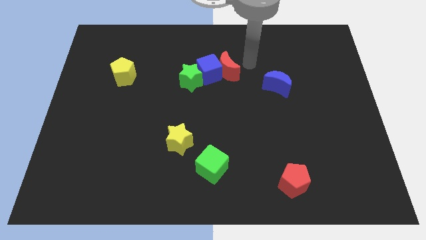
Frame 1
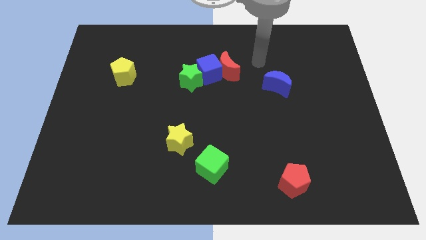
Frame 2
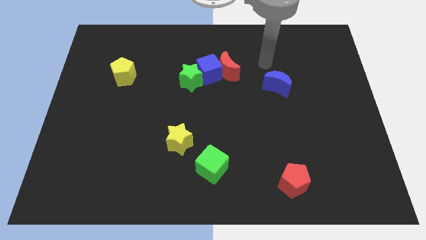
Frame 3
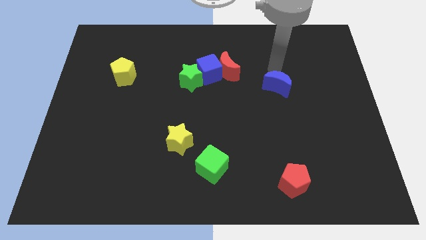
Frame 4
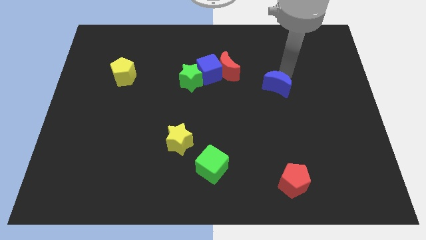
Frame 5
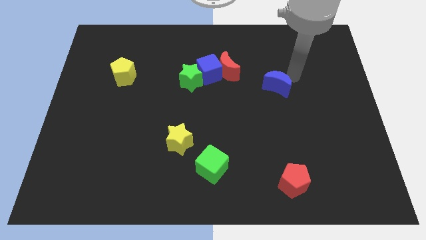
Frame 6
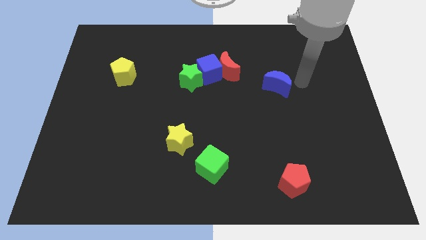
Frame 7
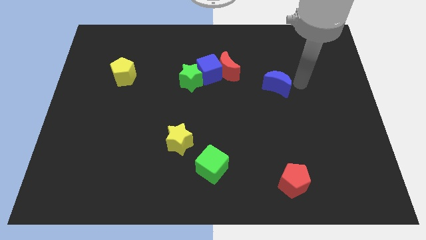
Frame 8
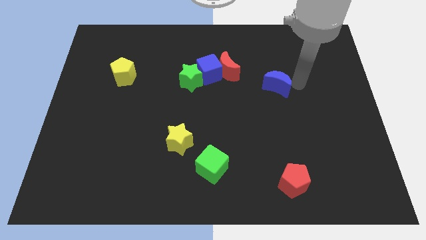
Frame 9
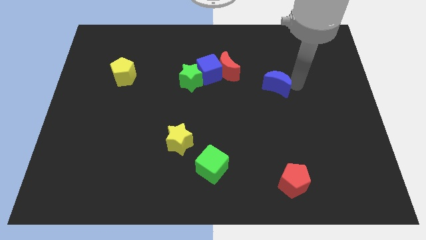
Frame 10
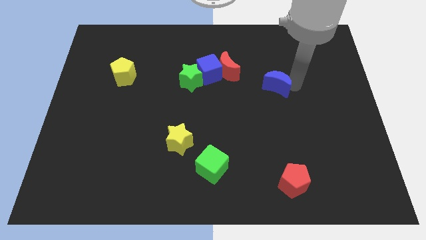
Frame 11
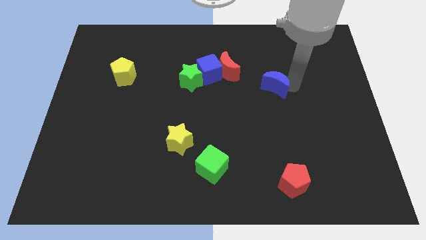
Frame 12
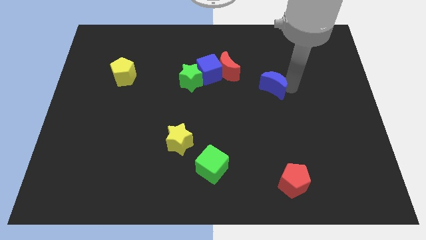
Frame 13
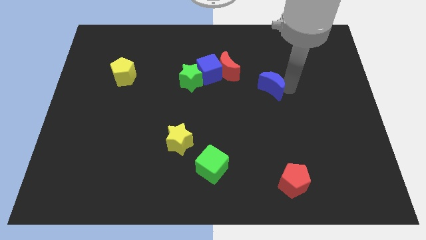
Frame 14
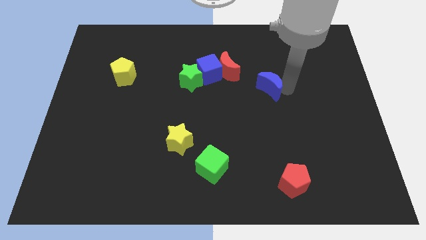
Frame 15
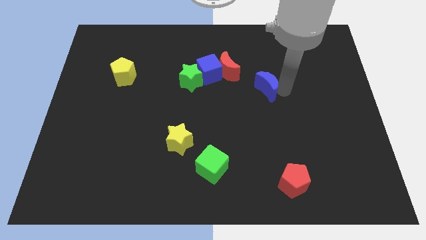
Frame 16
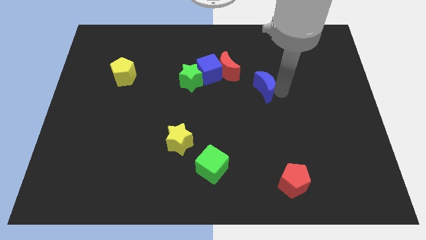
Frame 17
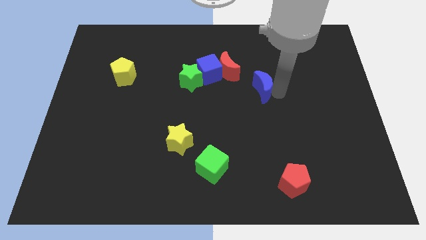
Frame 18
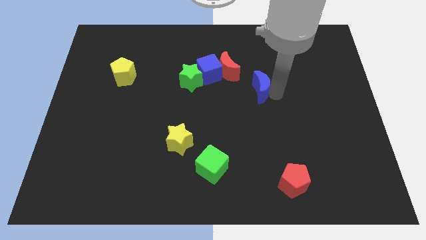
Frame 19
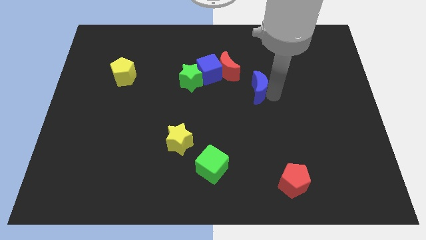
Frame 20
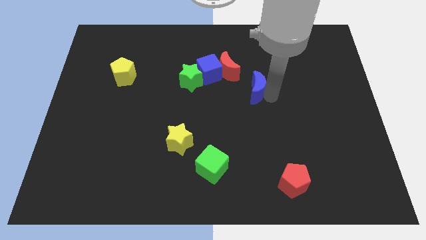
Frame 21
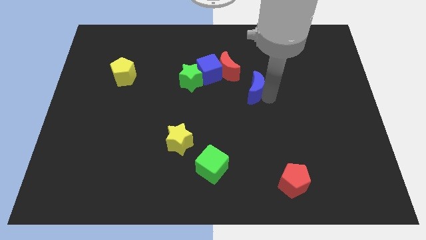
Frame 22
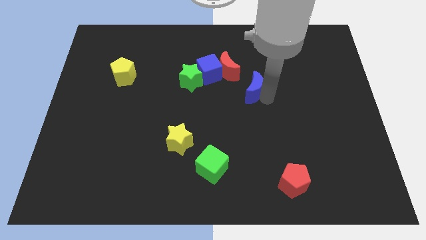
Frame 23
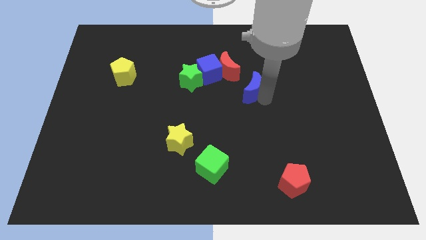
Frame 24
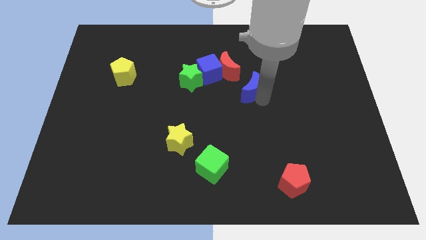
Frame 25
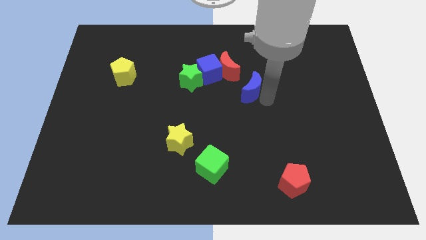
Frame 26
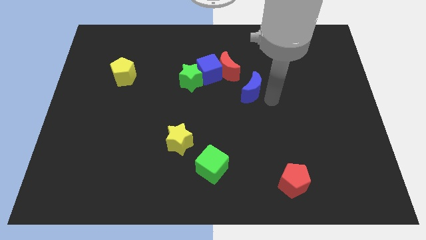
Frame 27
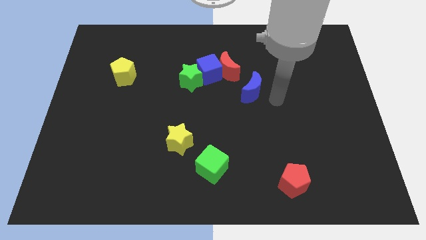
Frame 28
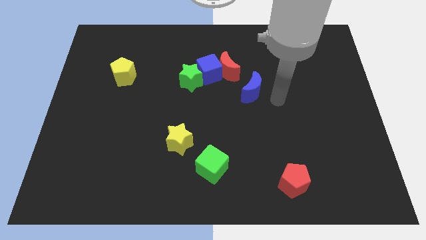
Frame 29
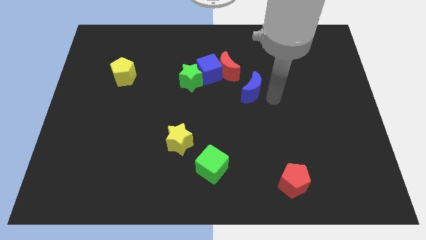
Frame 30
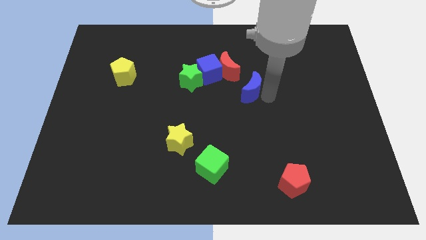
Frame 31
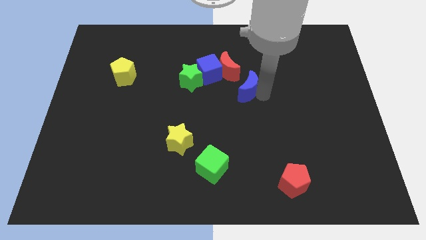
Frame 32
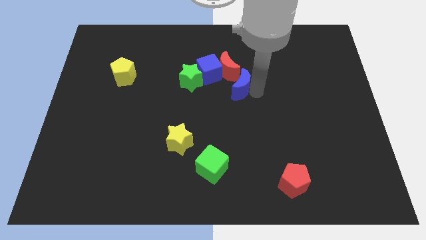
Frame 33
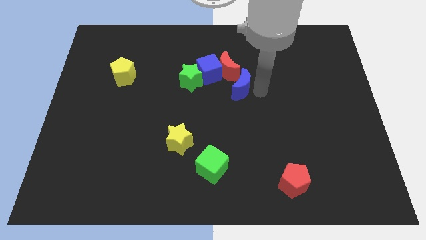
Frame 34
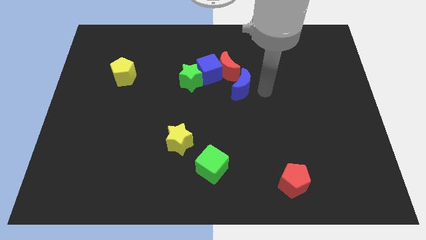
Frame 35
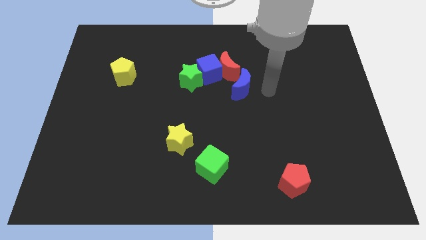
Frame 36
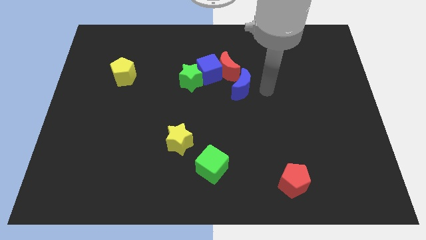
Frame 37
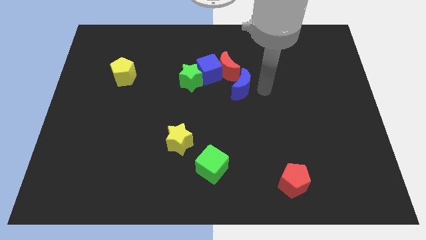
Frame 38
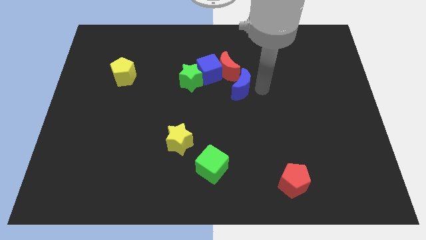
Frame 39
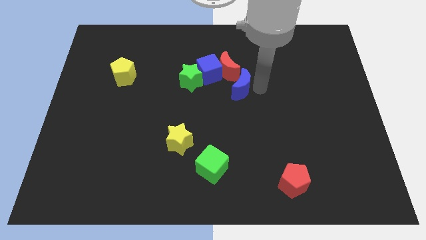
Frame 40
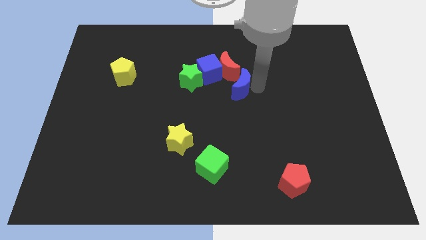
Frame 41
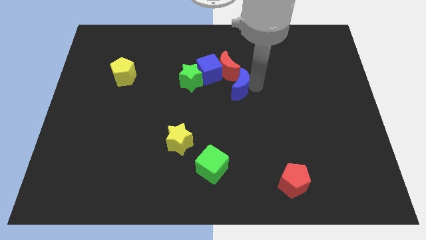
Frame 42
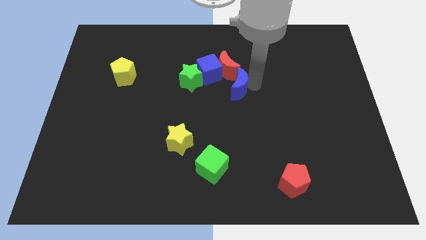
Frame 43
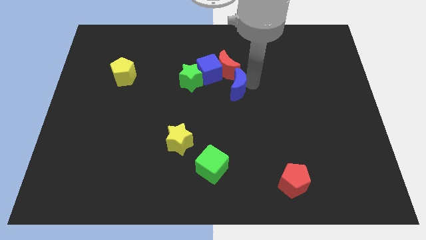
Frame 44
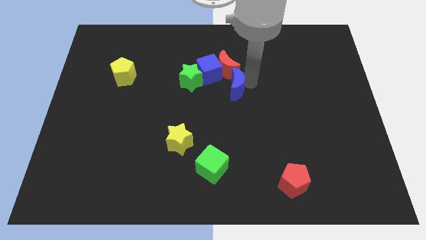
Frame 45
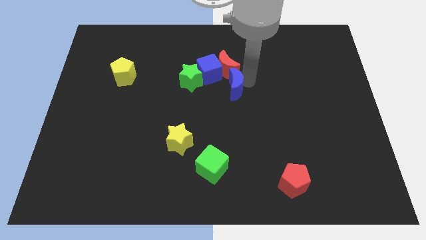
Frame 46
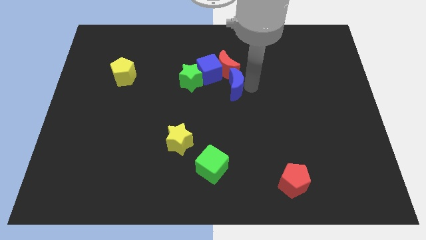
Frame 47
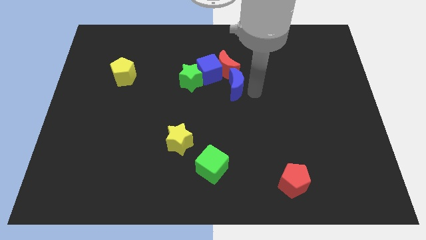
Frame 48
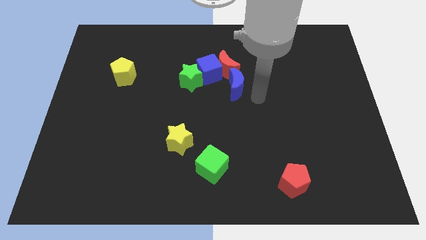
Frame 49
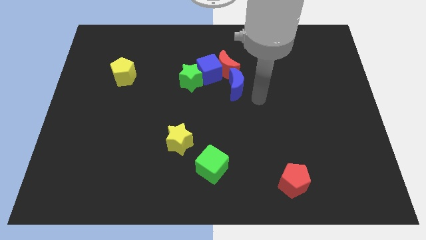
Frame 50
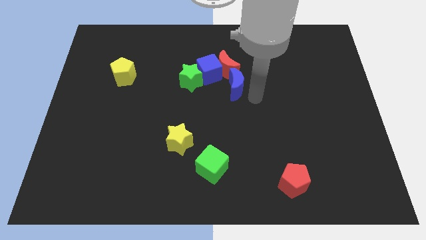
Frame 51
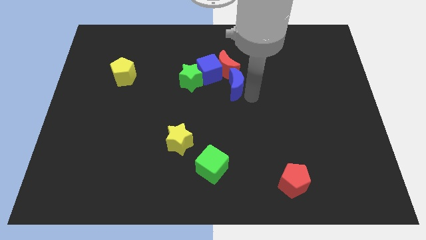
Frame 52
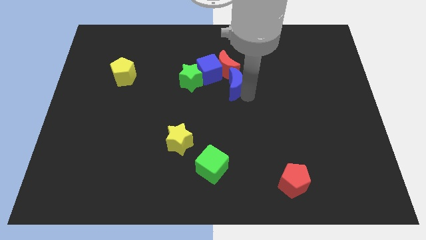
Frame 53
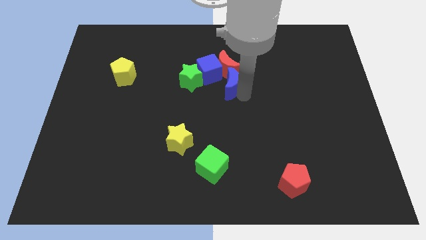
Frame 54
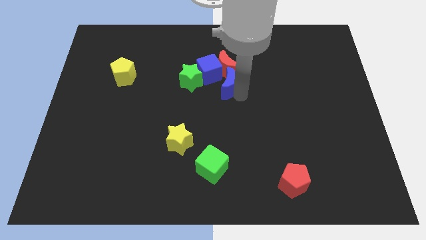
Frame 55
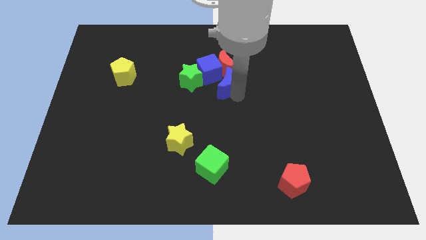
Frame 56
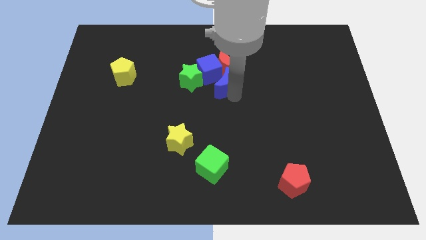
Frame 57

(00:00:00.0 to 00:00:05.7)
put the blue moon to the blue cube

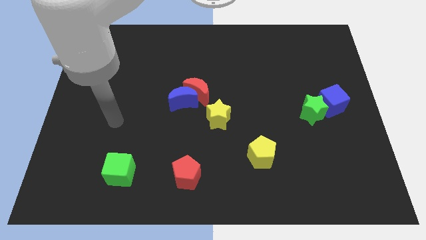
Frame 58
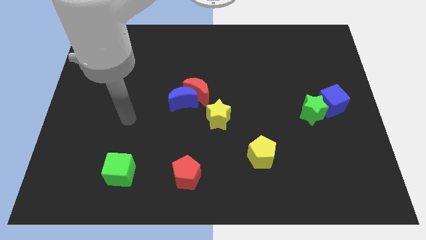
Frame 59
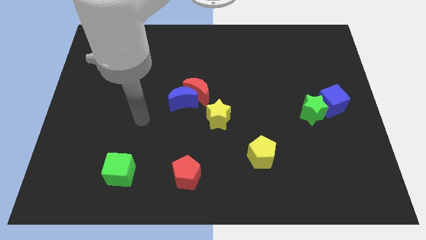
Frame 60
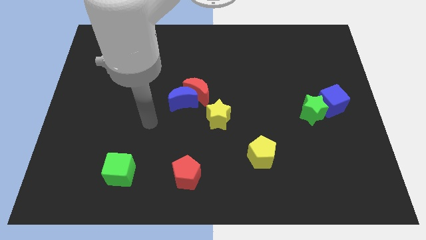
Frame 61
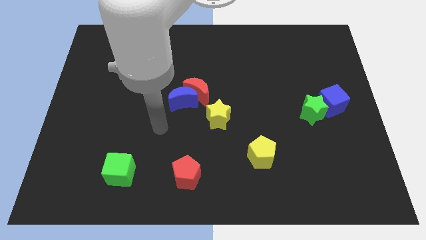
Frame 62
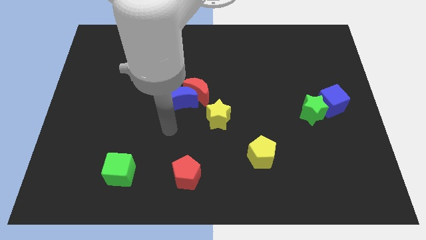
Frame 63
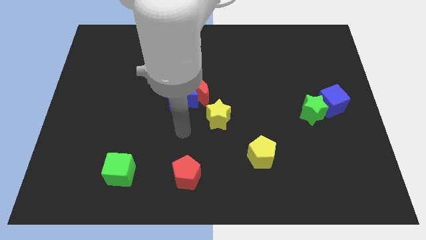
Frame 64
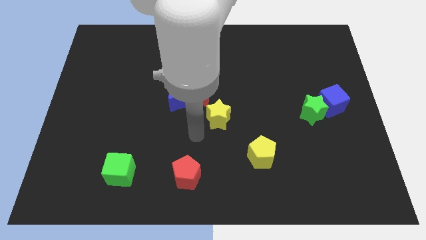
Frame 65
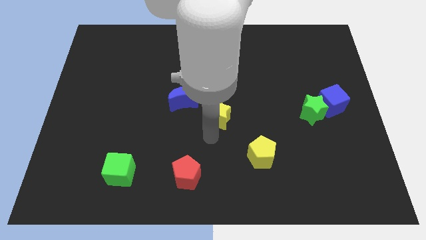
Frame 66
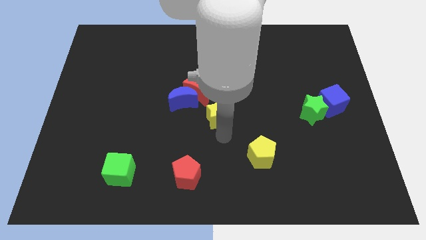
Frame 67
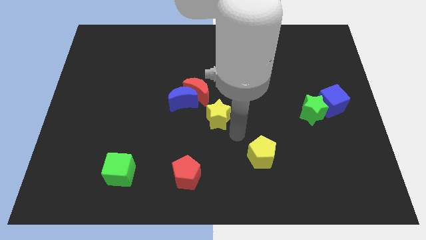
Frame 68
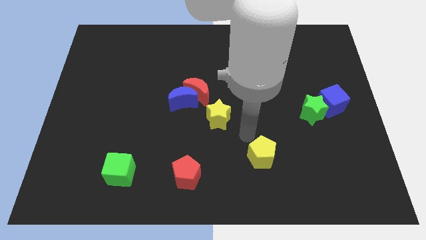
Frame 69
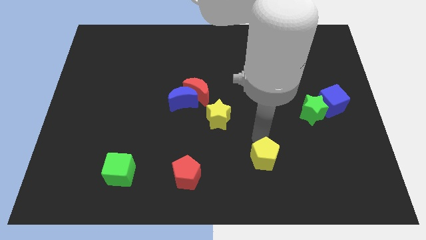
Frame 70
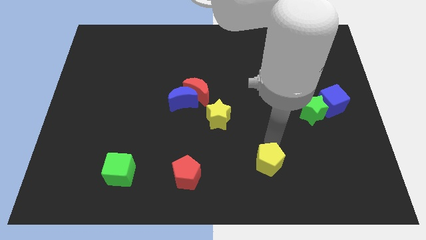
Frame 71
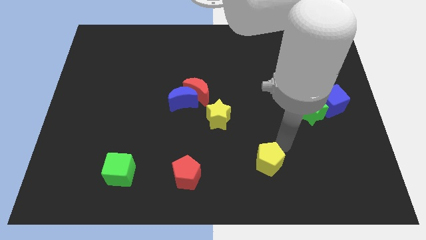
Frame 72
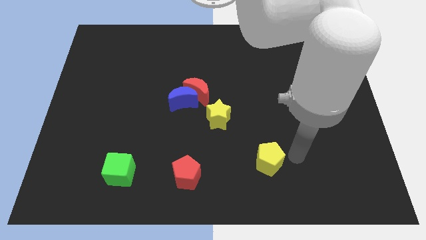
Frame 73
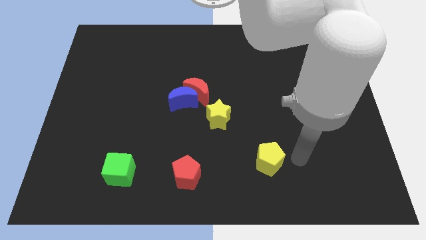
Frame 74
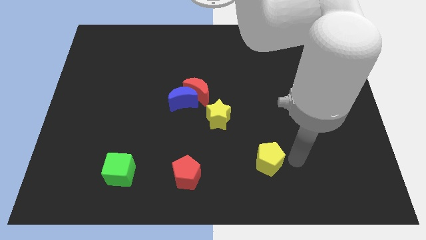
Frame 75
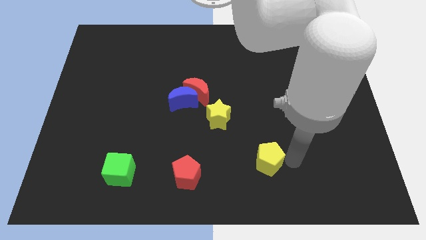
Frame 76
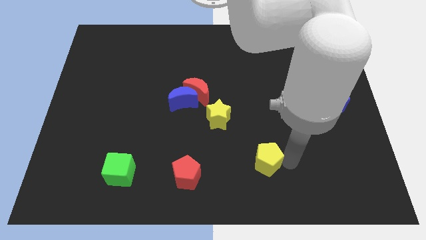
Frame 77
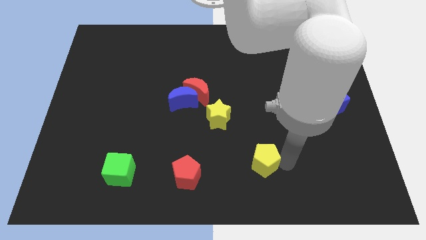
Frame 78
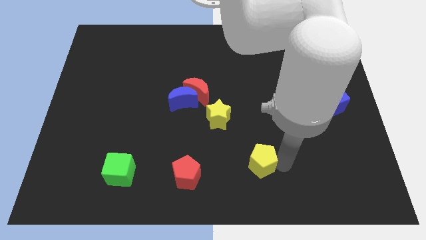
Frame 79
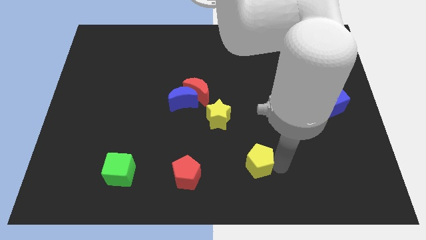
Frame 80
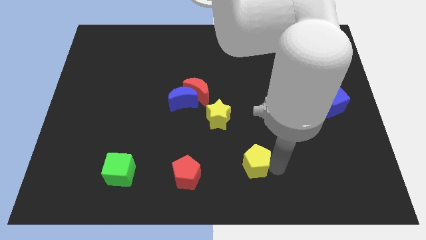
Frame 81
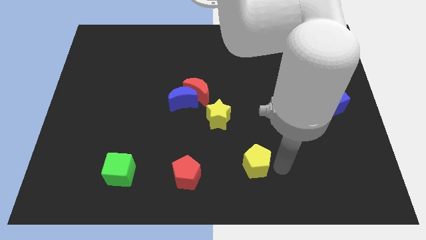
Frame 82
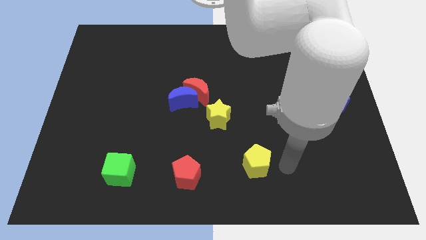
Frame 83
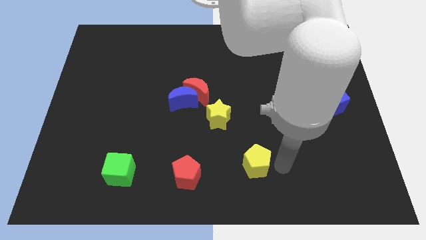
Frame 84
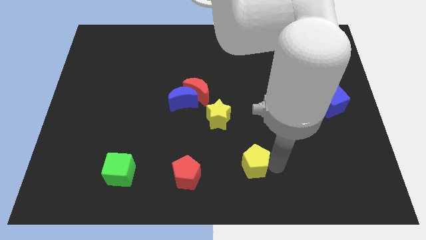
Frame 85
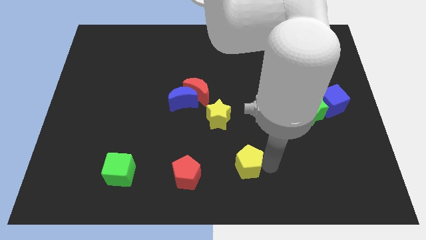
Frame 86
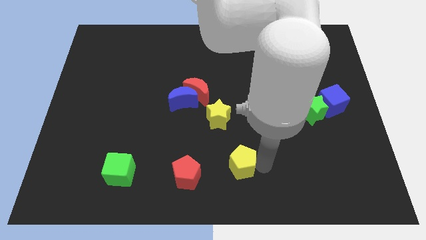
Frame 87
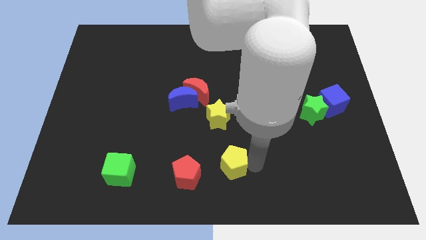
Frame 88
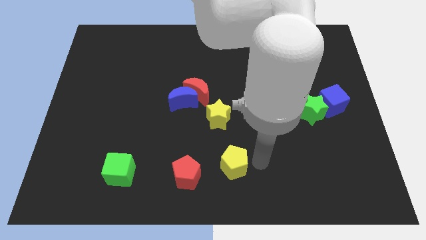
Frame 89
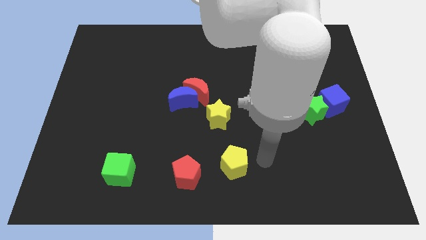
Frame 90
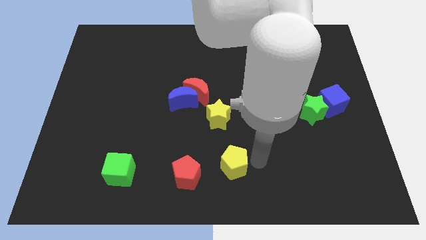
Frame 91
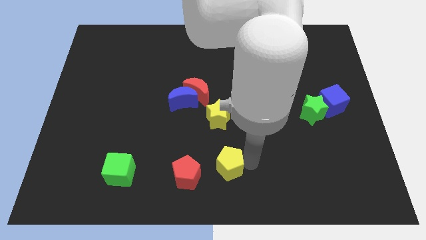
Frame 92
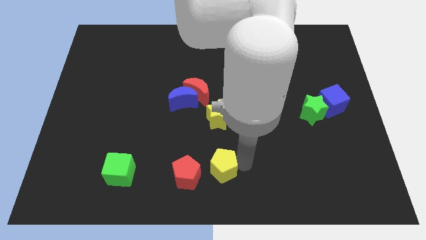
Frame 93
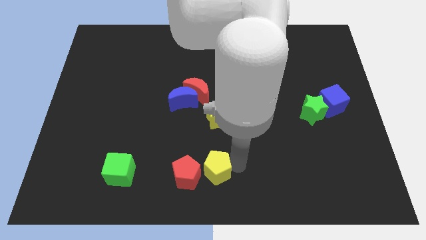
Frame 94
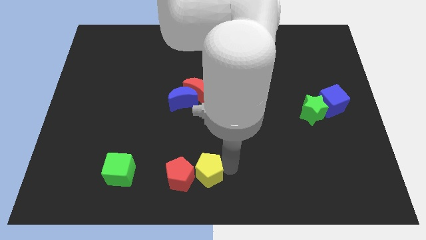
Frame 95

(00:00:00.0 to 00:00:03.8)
slide the yellow pentagon close to the red pentagon
